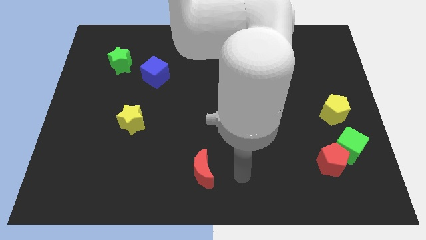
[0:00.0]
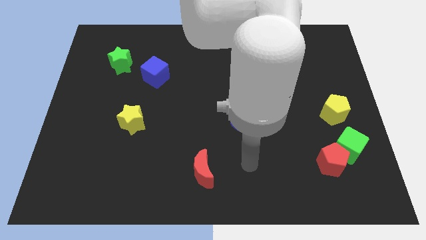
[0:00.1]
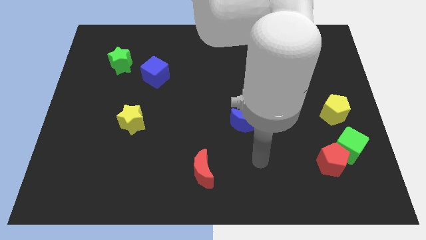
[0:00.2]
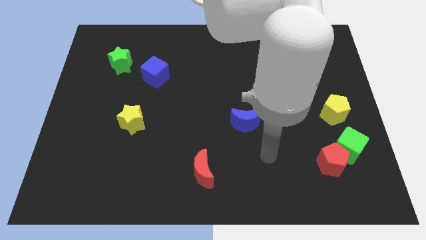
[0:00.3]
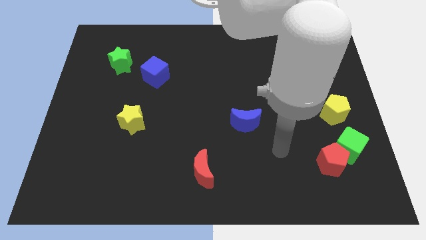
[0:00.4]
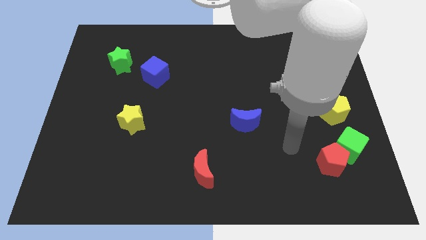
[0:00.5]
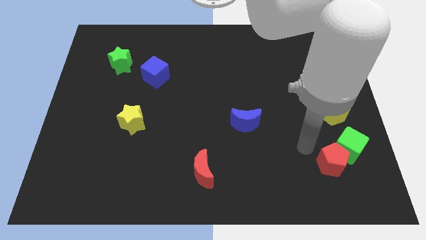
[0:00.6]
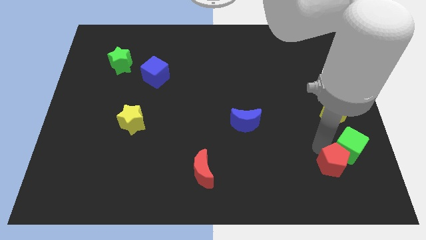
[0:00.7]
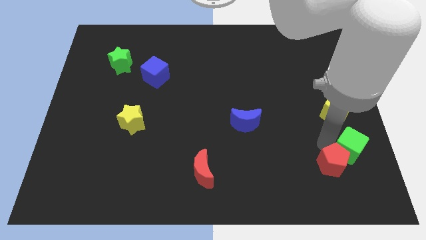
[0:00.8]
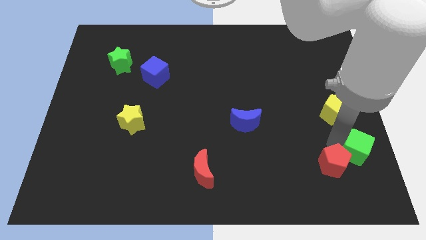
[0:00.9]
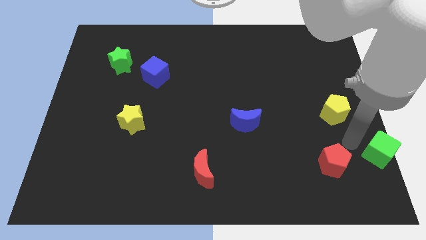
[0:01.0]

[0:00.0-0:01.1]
separate the red pentagon from the green cube

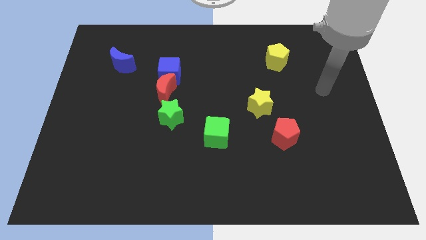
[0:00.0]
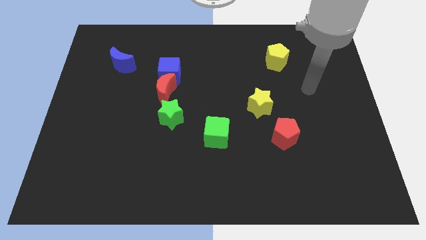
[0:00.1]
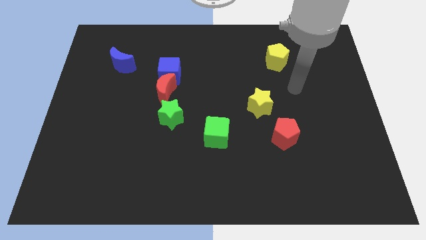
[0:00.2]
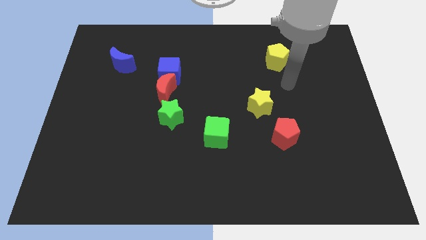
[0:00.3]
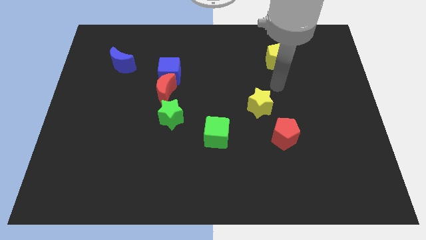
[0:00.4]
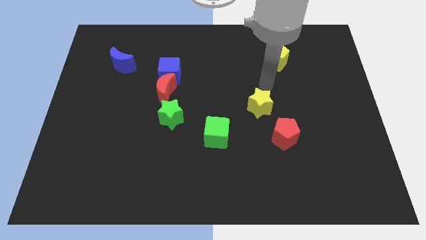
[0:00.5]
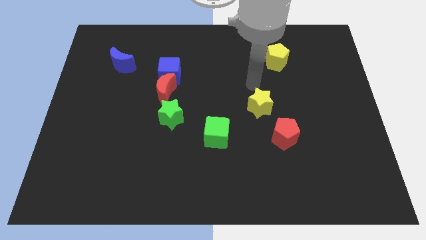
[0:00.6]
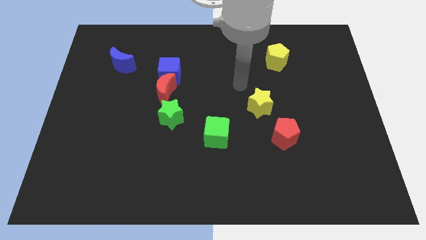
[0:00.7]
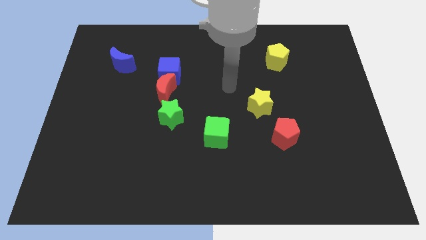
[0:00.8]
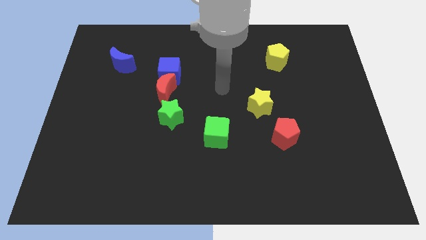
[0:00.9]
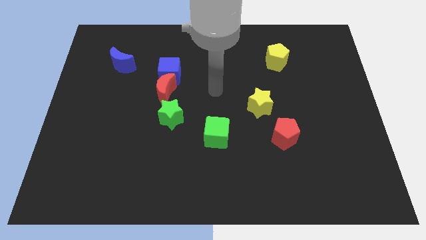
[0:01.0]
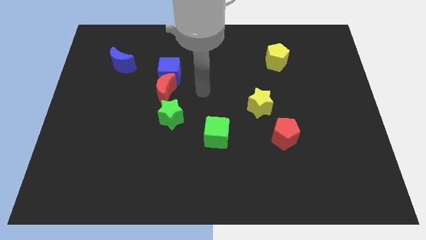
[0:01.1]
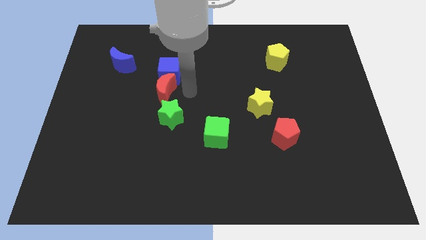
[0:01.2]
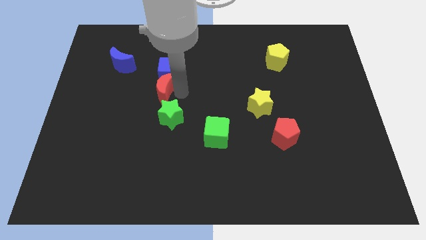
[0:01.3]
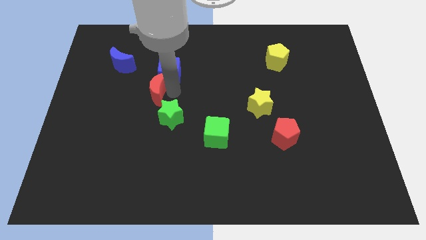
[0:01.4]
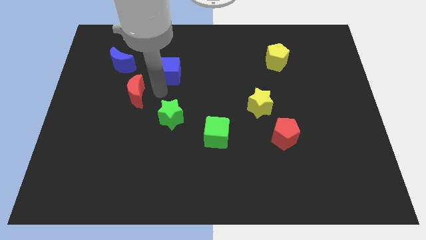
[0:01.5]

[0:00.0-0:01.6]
separate the blue cube from the red moon

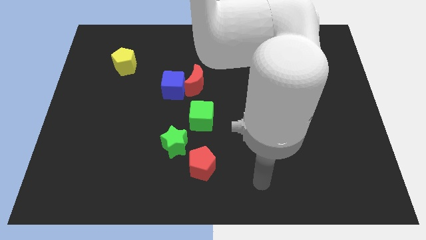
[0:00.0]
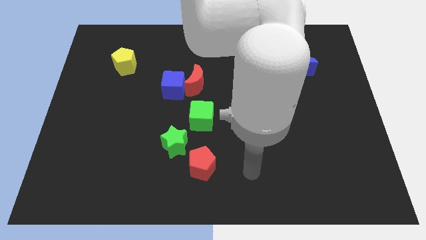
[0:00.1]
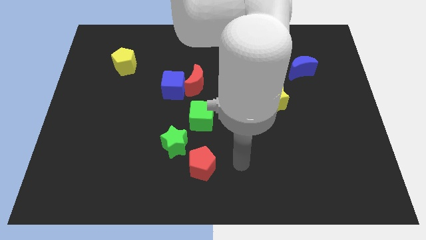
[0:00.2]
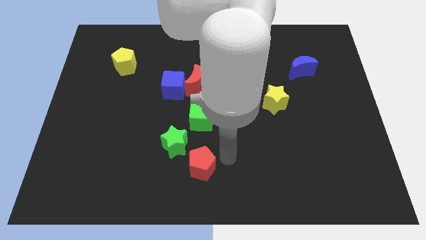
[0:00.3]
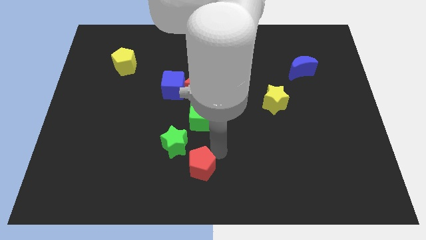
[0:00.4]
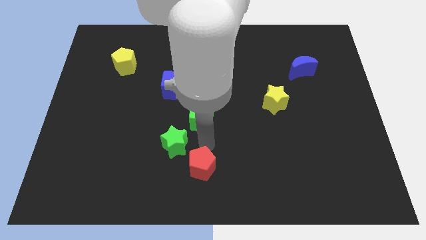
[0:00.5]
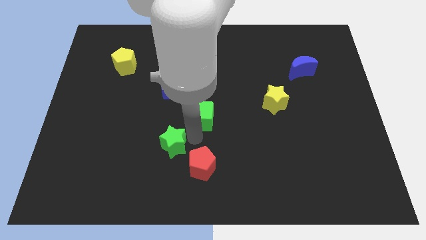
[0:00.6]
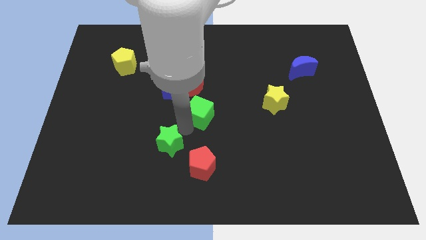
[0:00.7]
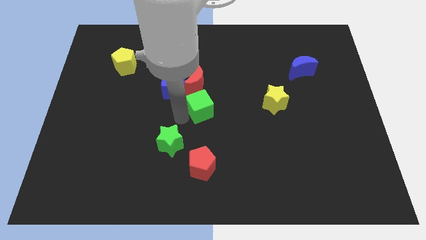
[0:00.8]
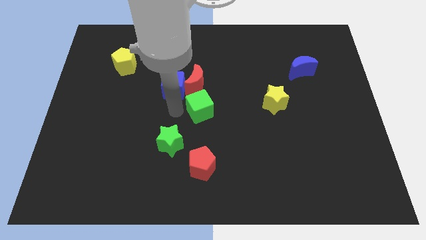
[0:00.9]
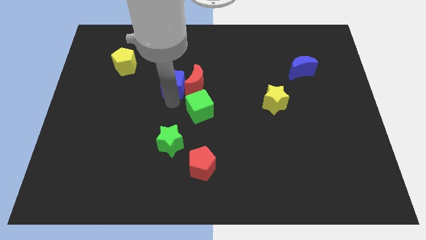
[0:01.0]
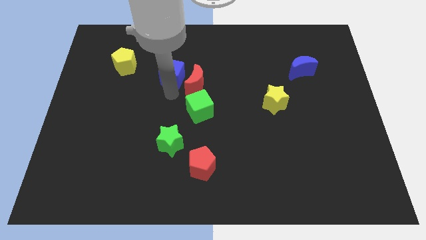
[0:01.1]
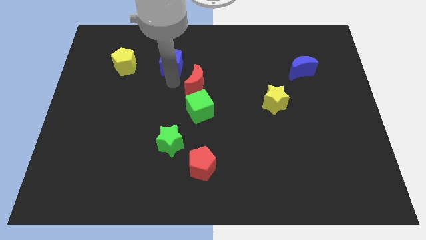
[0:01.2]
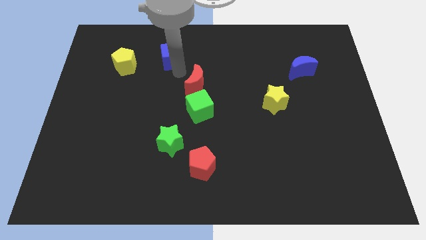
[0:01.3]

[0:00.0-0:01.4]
separate the red moon from the blue cube

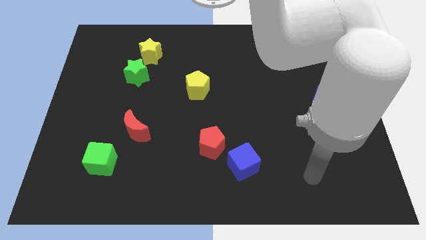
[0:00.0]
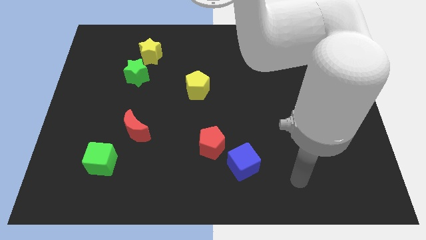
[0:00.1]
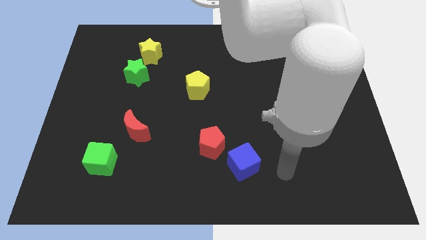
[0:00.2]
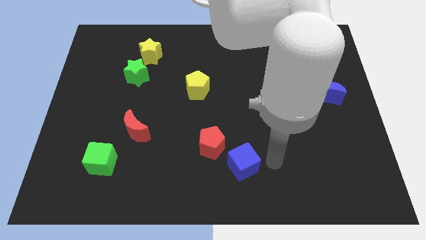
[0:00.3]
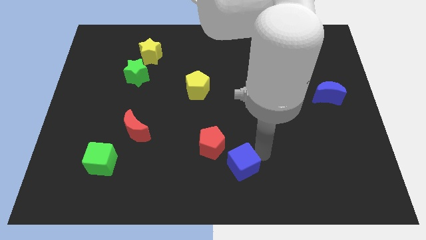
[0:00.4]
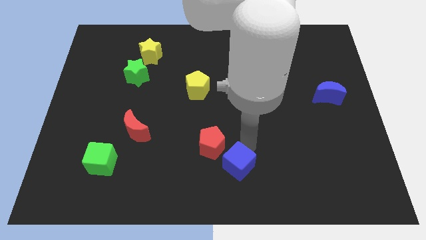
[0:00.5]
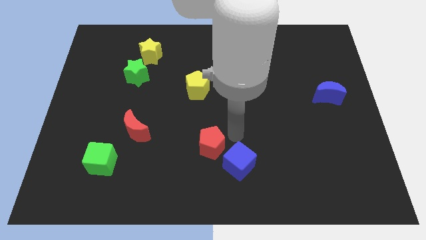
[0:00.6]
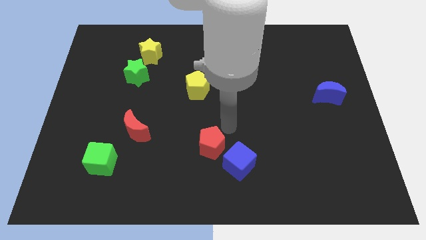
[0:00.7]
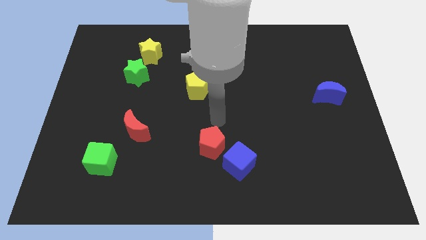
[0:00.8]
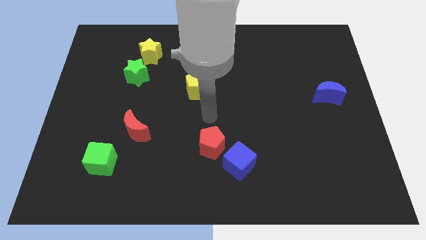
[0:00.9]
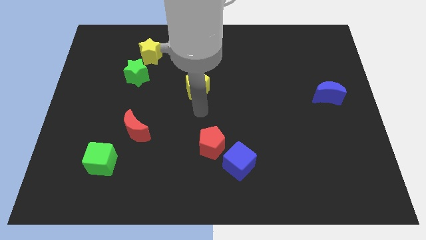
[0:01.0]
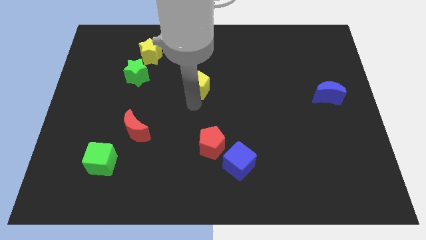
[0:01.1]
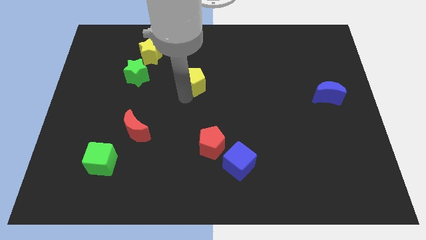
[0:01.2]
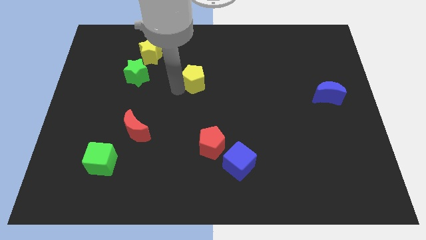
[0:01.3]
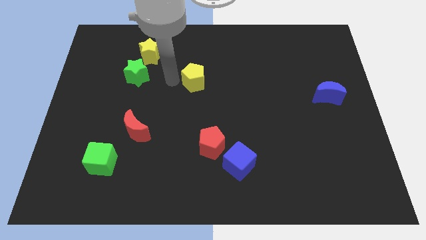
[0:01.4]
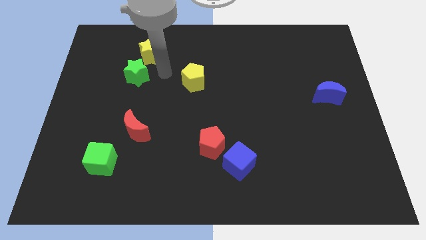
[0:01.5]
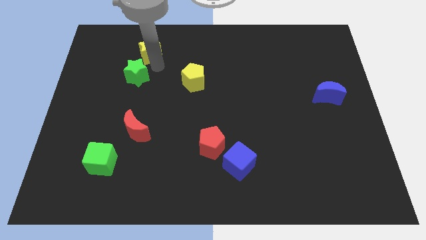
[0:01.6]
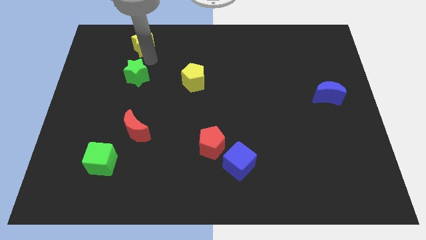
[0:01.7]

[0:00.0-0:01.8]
move the green star away from the yellow star

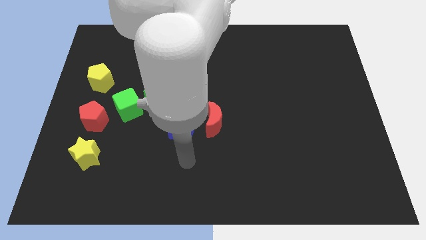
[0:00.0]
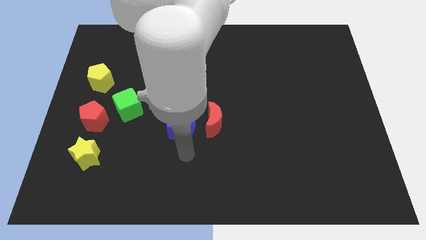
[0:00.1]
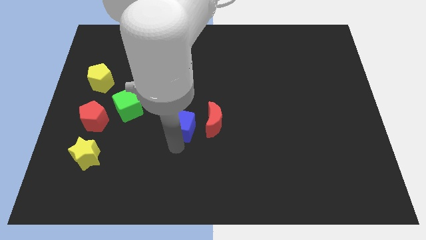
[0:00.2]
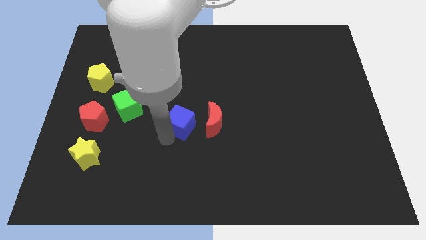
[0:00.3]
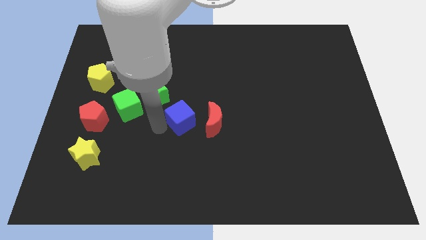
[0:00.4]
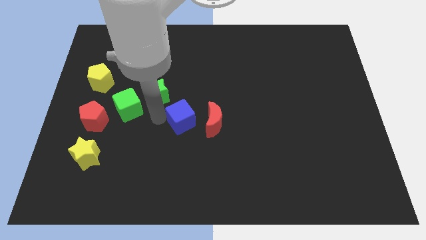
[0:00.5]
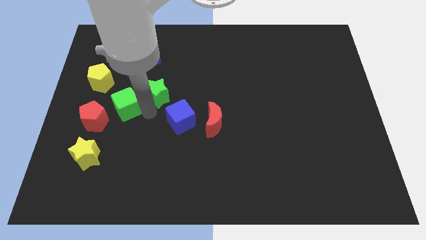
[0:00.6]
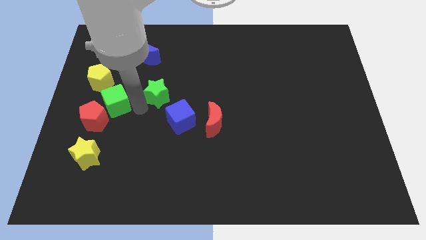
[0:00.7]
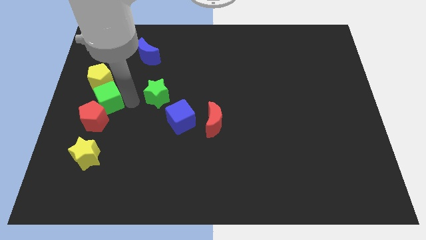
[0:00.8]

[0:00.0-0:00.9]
separate the green star from the green cube

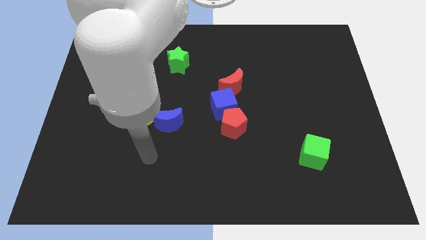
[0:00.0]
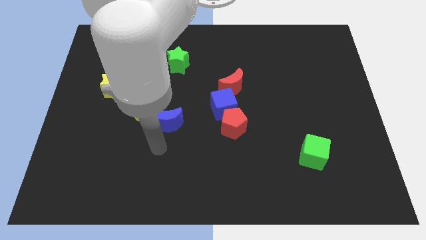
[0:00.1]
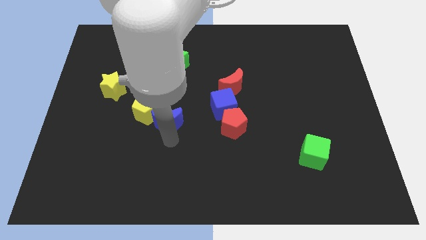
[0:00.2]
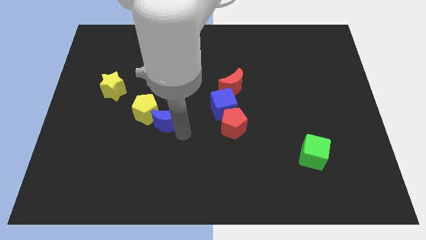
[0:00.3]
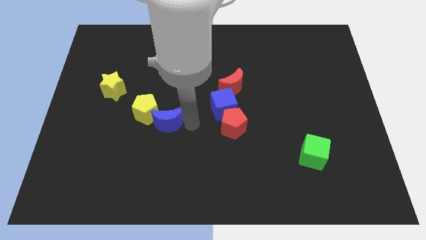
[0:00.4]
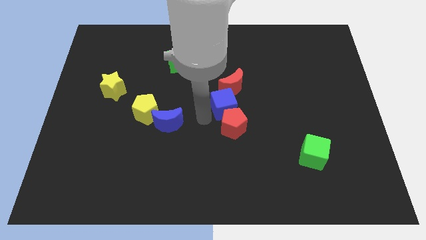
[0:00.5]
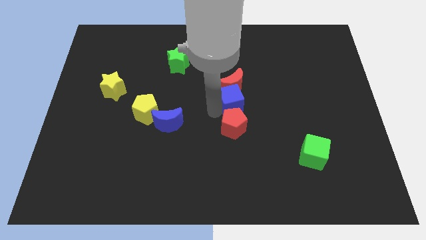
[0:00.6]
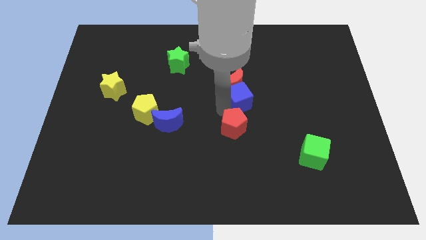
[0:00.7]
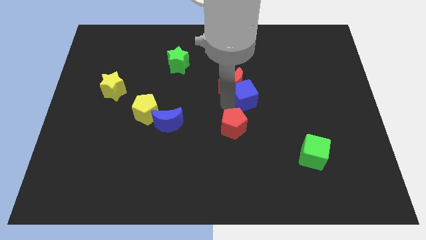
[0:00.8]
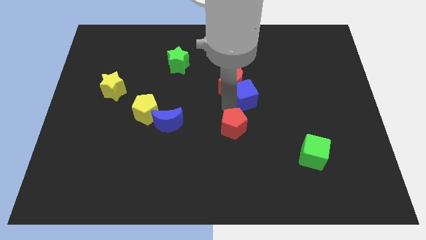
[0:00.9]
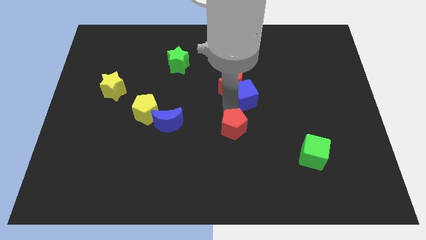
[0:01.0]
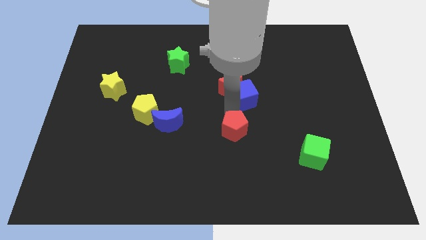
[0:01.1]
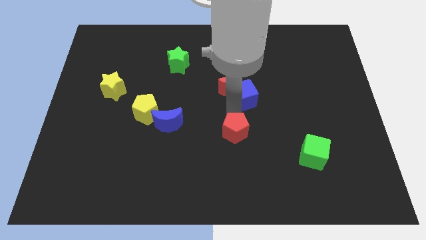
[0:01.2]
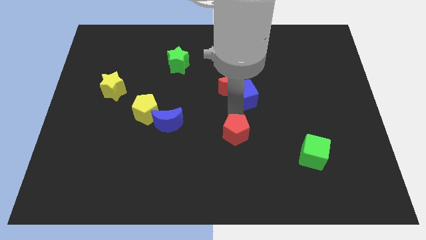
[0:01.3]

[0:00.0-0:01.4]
pull the red pentagon apart from the blue cube

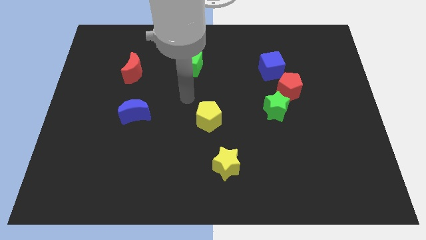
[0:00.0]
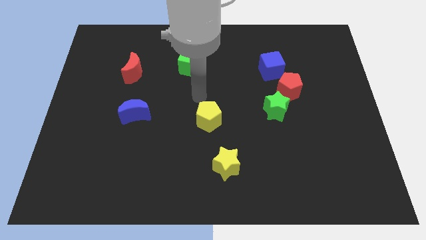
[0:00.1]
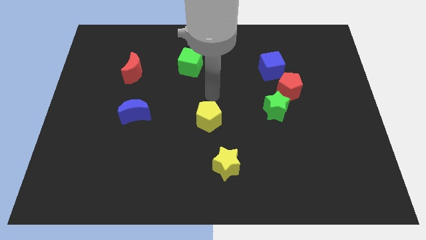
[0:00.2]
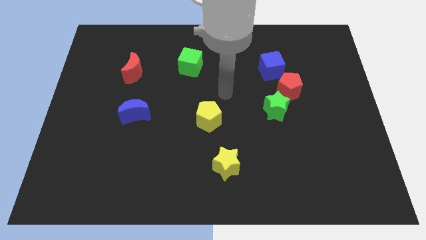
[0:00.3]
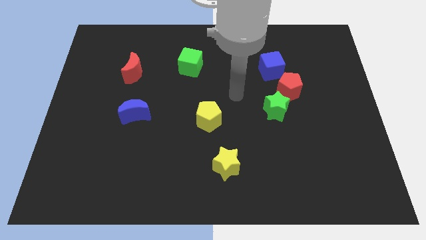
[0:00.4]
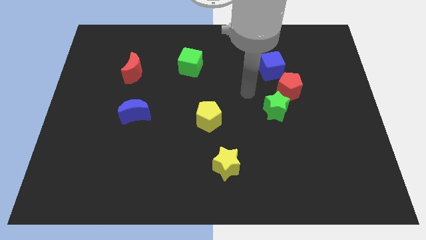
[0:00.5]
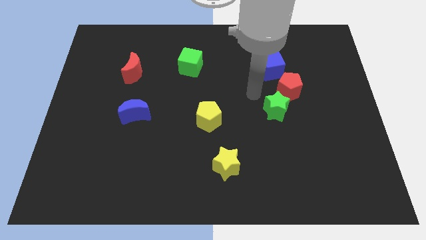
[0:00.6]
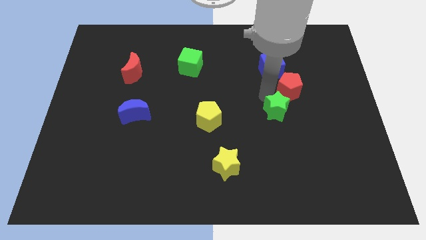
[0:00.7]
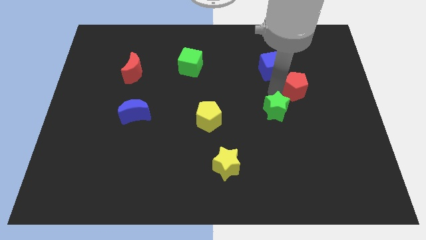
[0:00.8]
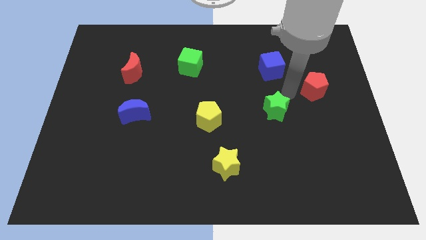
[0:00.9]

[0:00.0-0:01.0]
pull the green star apart from the red pentagon

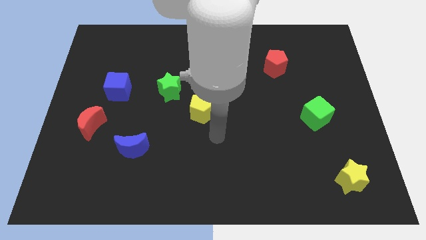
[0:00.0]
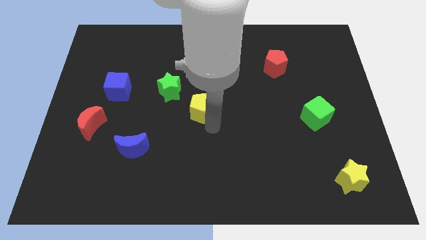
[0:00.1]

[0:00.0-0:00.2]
separate the green star from the yellow pentagon

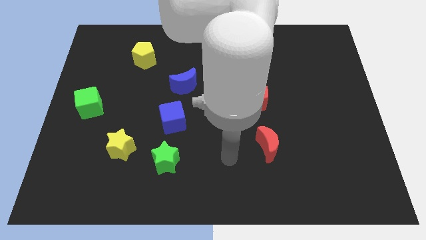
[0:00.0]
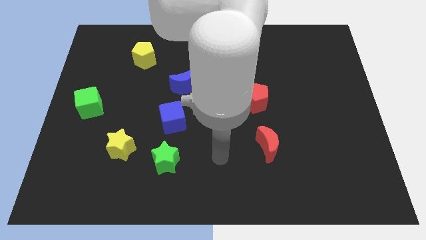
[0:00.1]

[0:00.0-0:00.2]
separate the green star from the yellow star
